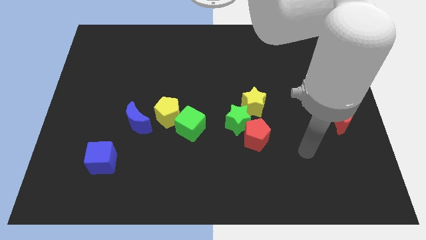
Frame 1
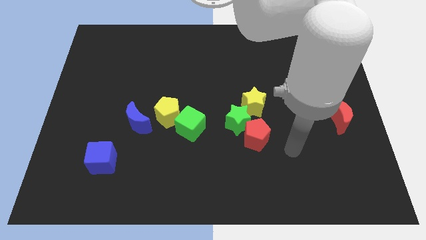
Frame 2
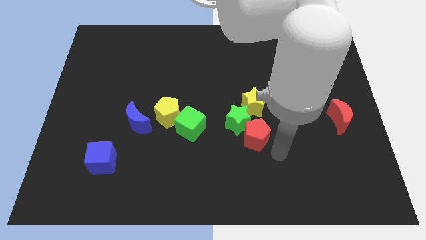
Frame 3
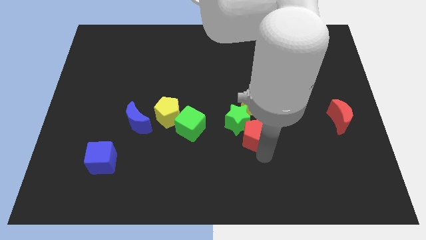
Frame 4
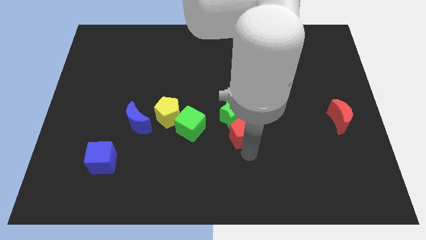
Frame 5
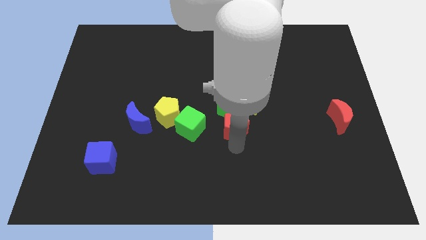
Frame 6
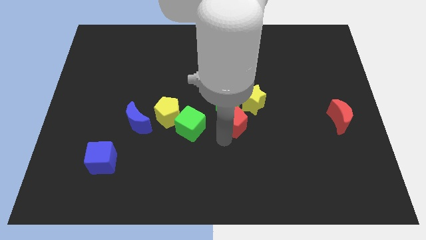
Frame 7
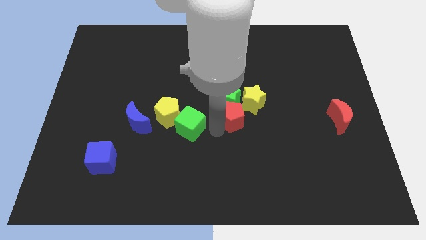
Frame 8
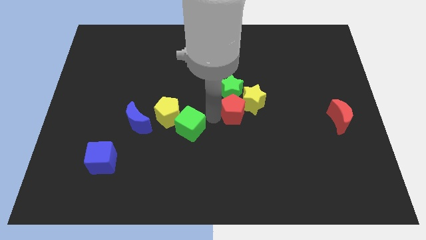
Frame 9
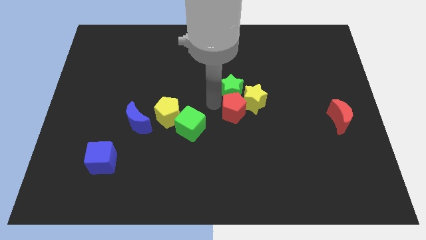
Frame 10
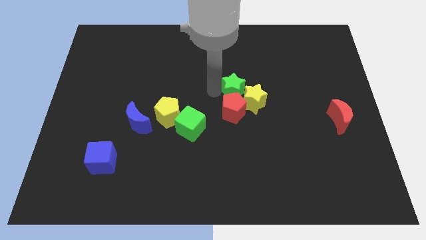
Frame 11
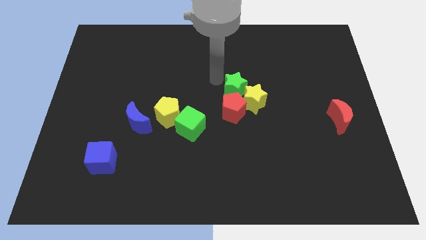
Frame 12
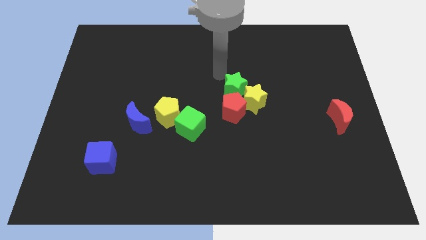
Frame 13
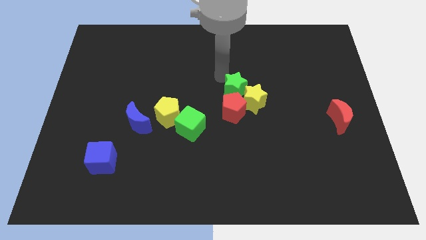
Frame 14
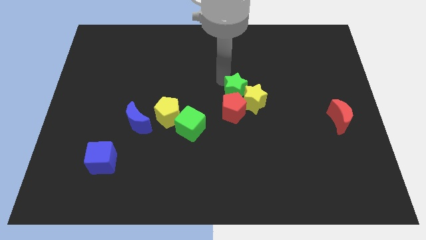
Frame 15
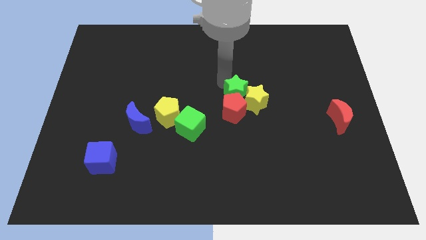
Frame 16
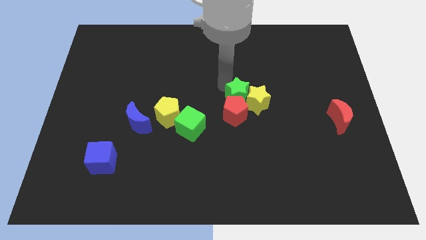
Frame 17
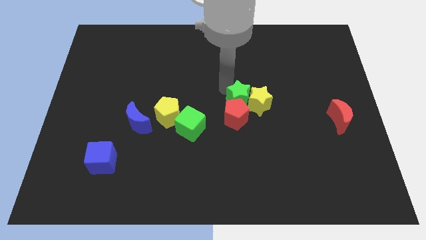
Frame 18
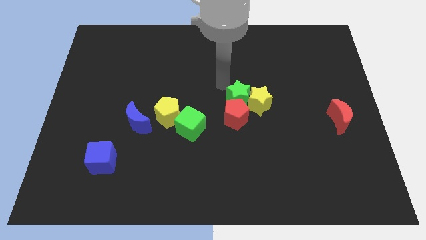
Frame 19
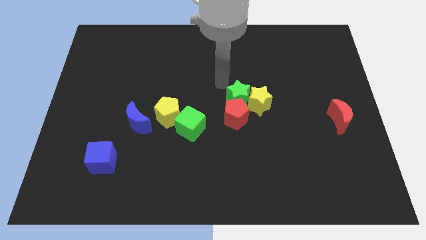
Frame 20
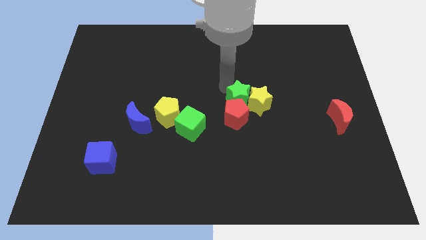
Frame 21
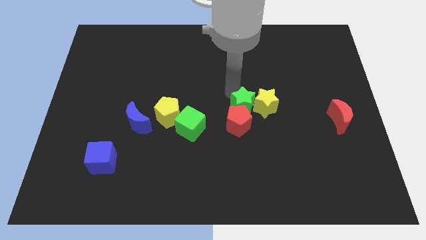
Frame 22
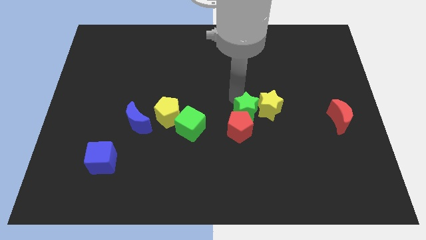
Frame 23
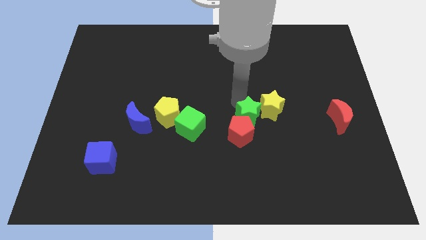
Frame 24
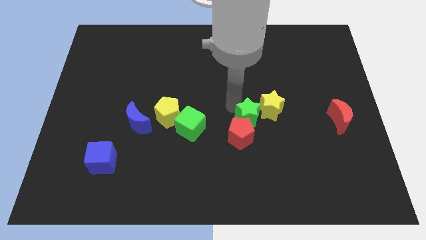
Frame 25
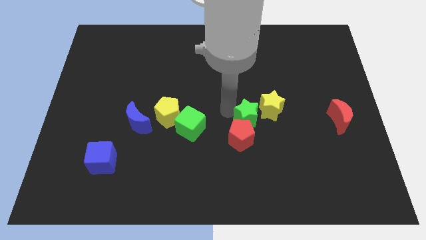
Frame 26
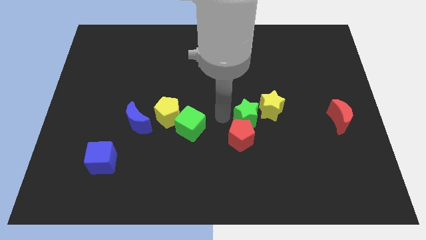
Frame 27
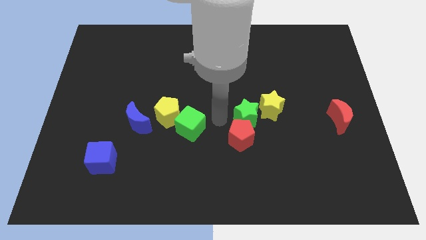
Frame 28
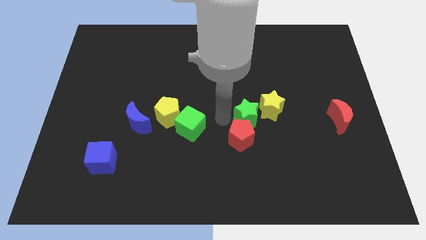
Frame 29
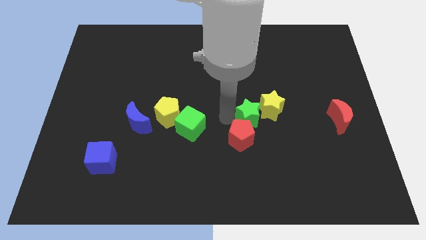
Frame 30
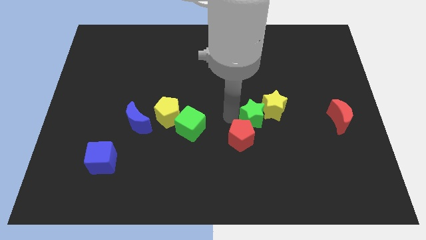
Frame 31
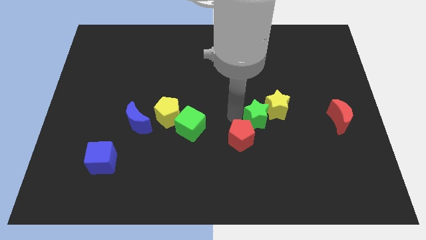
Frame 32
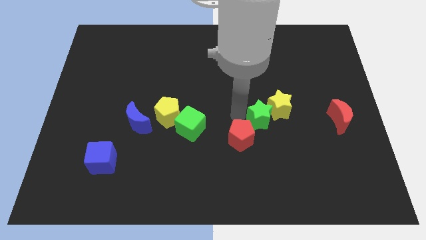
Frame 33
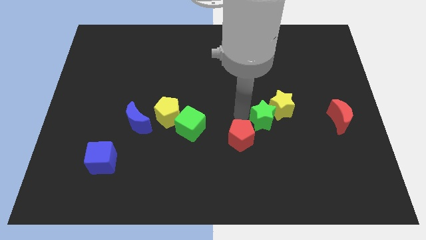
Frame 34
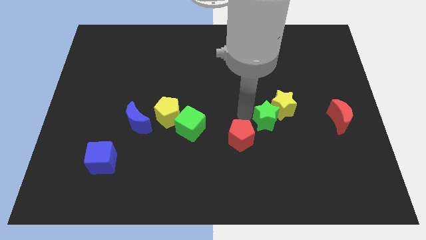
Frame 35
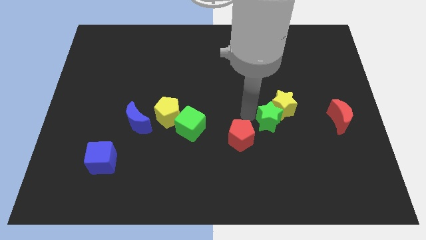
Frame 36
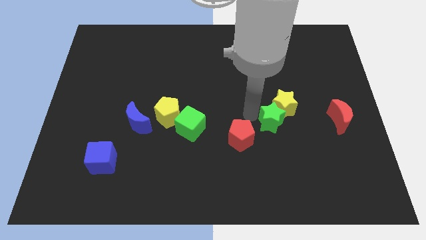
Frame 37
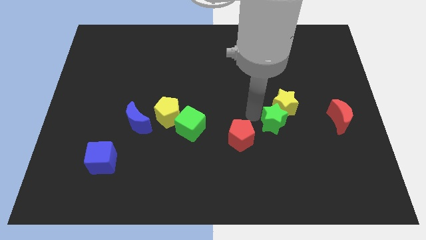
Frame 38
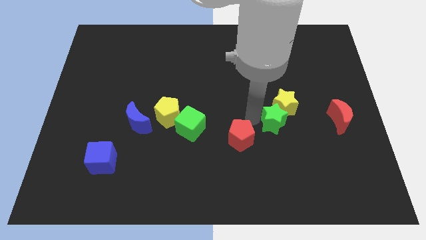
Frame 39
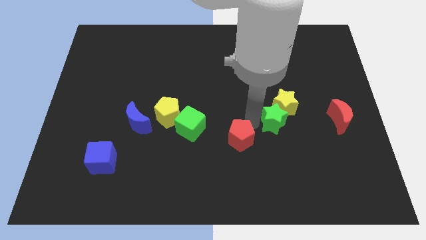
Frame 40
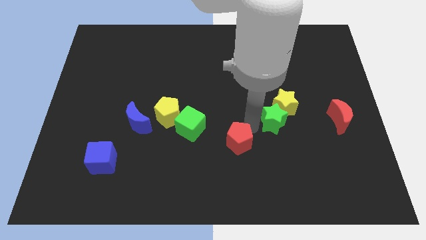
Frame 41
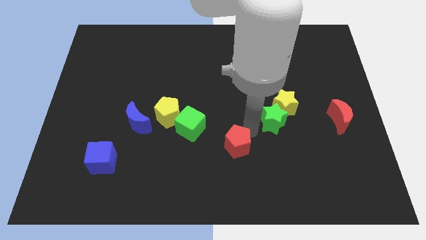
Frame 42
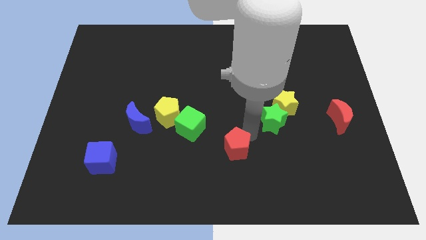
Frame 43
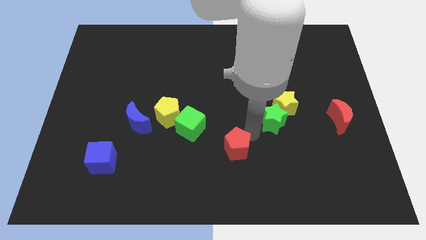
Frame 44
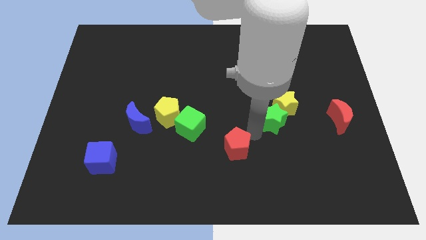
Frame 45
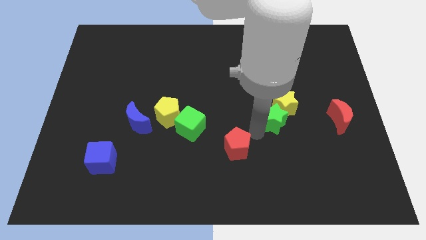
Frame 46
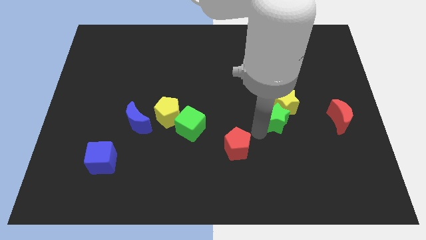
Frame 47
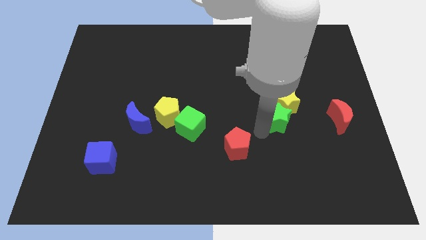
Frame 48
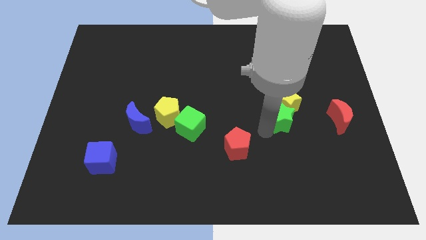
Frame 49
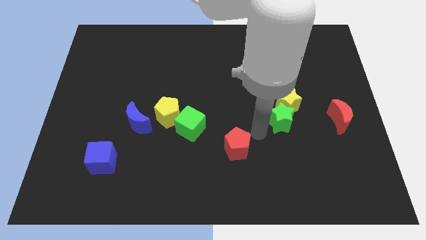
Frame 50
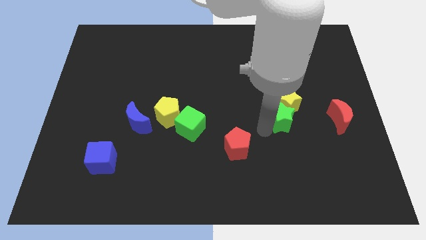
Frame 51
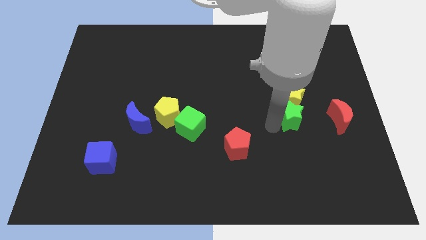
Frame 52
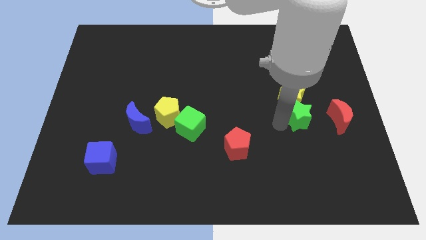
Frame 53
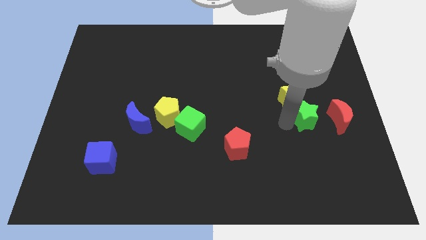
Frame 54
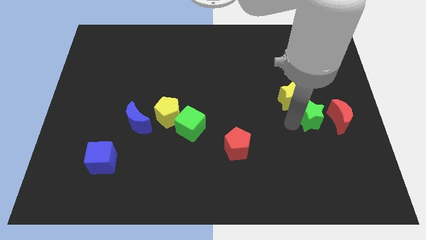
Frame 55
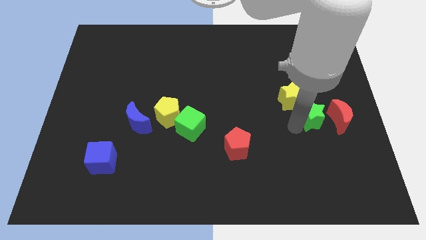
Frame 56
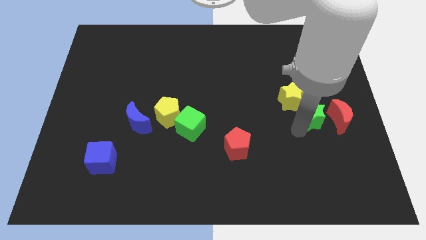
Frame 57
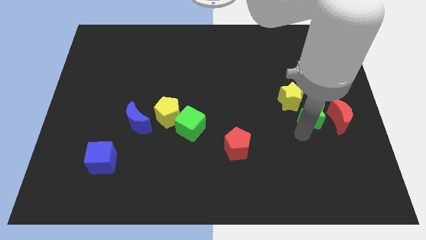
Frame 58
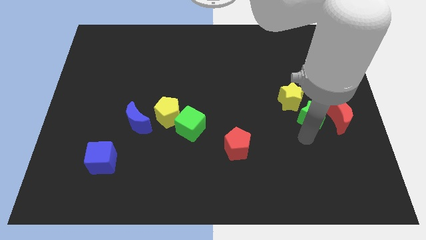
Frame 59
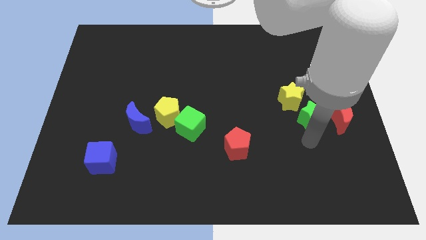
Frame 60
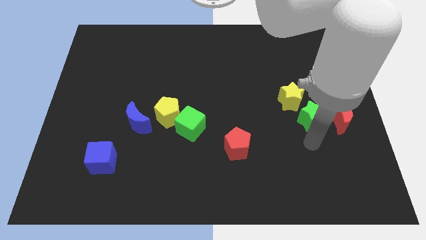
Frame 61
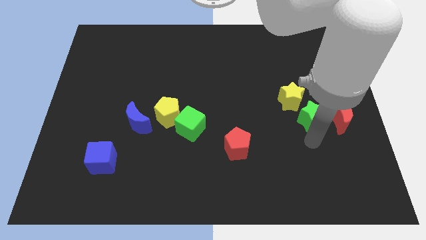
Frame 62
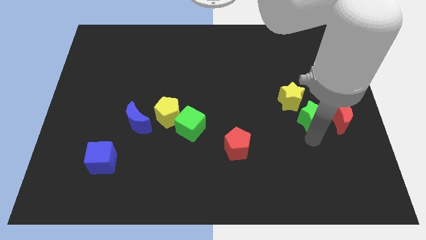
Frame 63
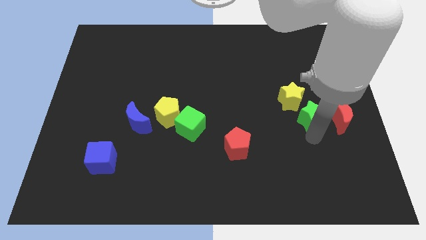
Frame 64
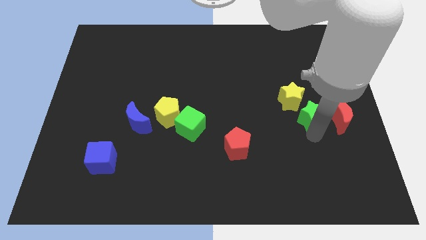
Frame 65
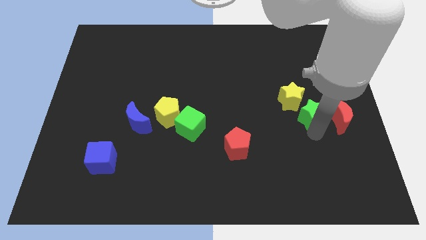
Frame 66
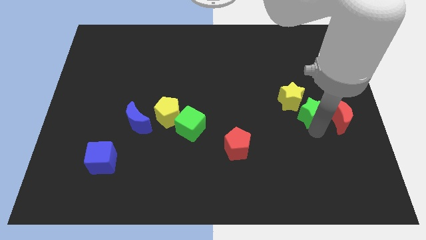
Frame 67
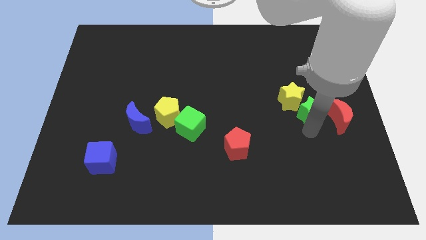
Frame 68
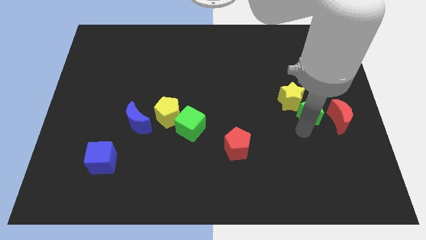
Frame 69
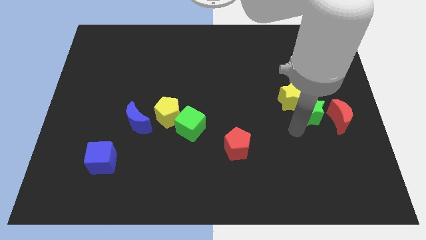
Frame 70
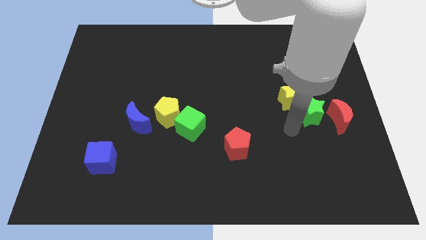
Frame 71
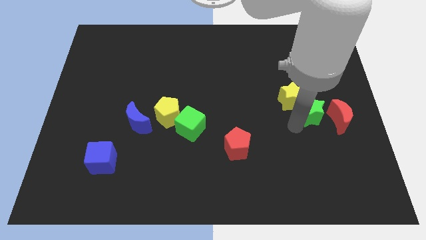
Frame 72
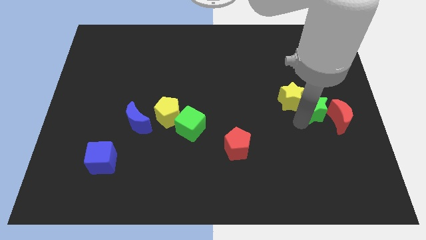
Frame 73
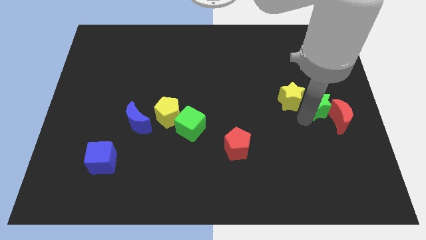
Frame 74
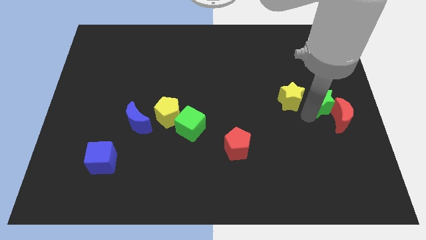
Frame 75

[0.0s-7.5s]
slide the green star to the right side
